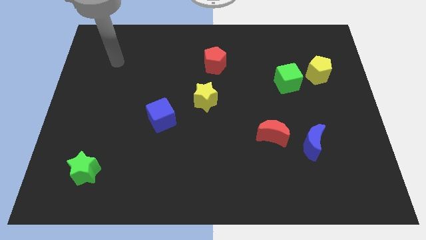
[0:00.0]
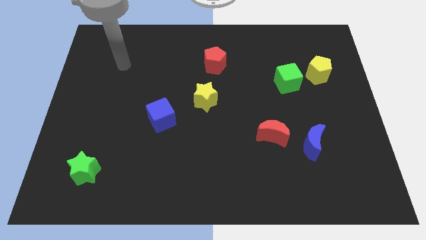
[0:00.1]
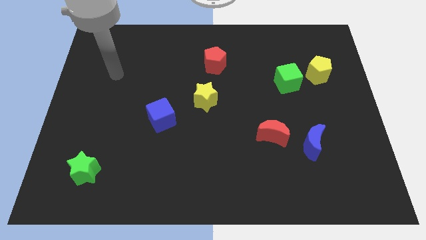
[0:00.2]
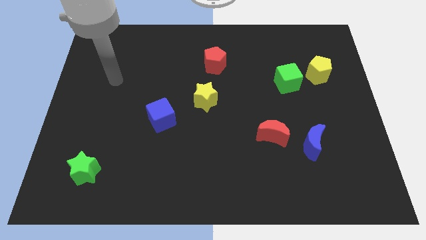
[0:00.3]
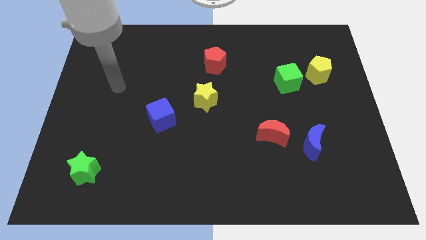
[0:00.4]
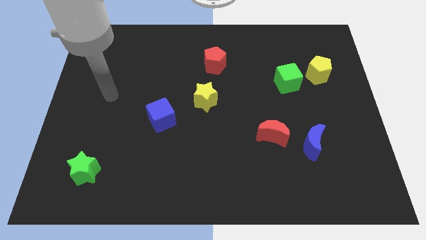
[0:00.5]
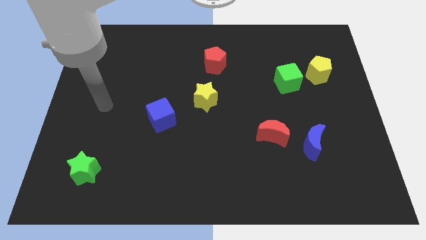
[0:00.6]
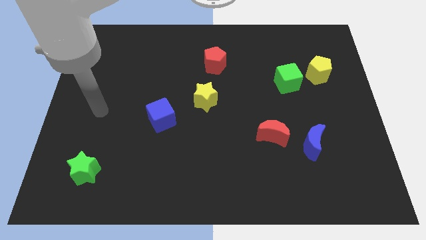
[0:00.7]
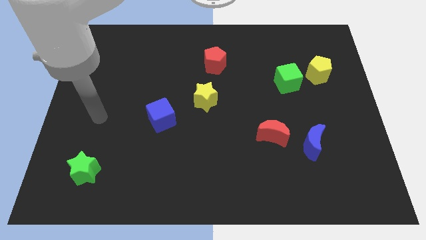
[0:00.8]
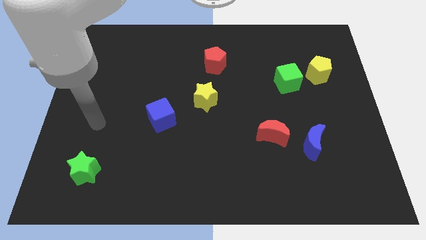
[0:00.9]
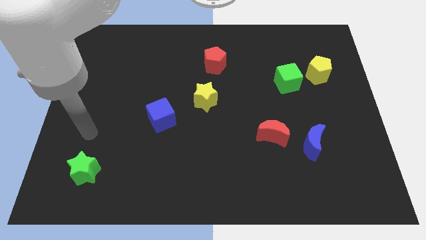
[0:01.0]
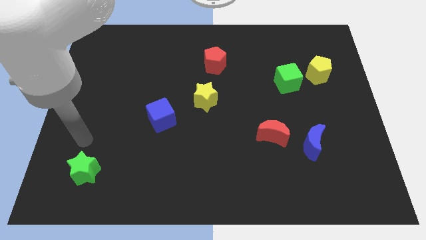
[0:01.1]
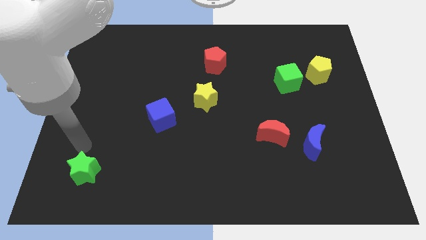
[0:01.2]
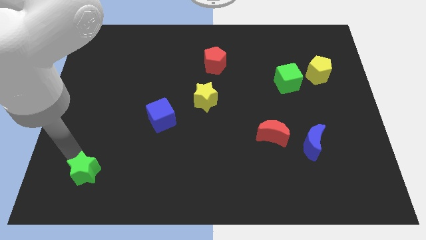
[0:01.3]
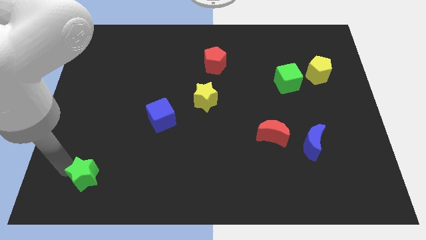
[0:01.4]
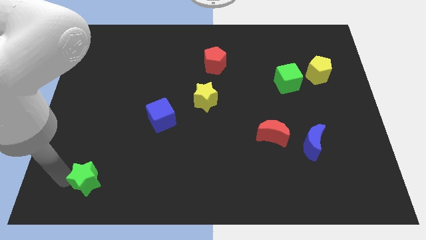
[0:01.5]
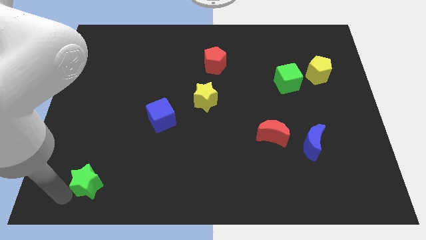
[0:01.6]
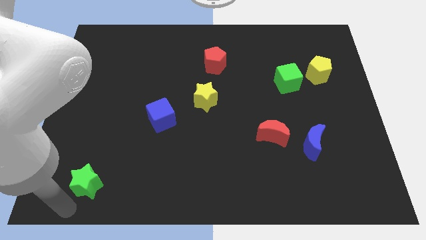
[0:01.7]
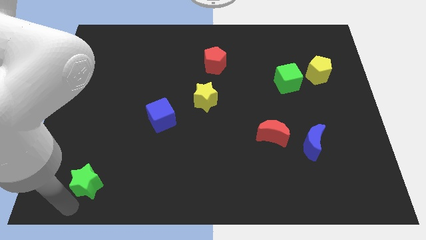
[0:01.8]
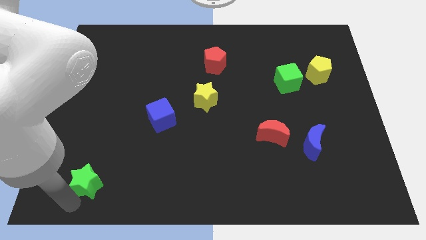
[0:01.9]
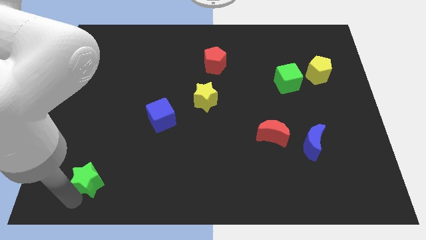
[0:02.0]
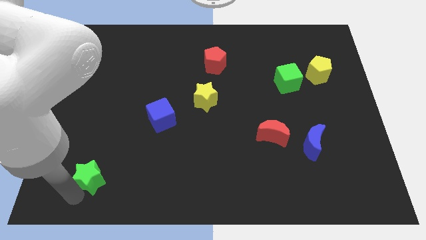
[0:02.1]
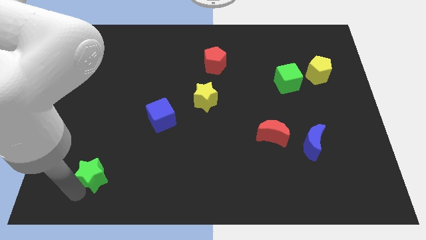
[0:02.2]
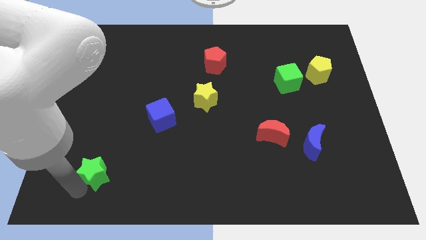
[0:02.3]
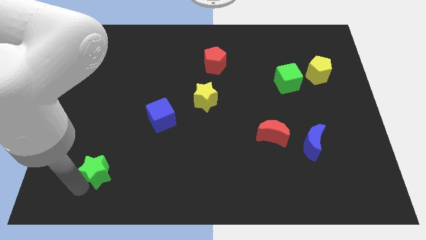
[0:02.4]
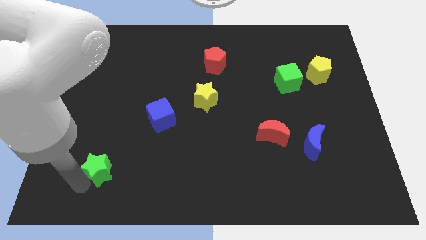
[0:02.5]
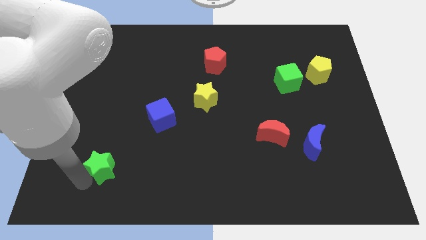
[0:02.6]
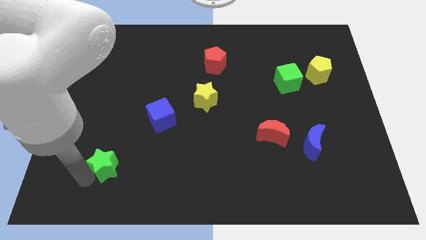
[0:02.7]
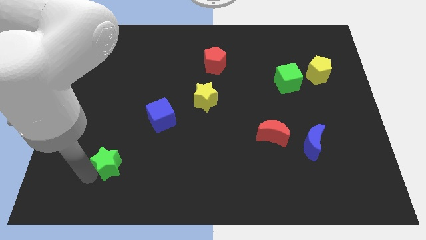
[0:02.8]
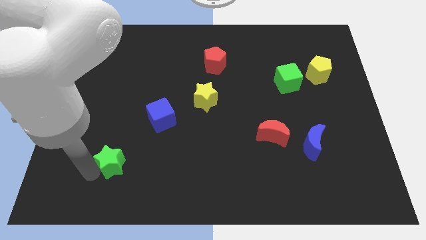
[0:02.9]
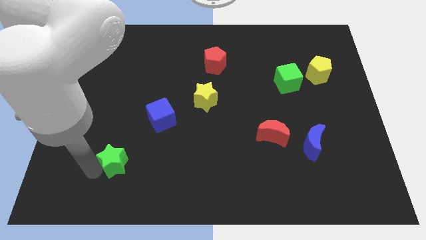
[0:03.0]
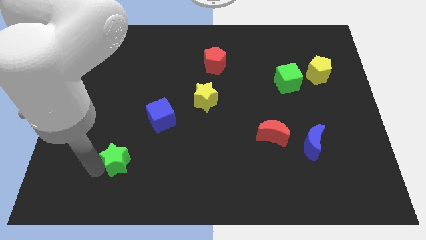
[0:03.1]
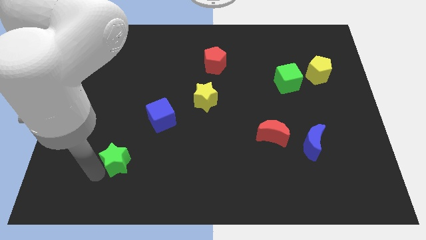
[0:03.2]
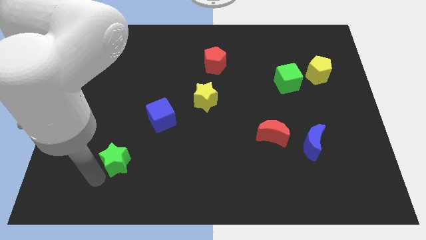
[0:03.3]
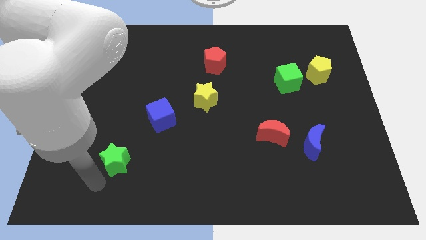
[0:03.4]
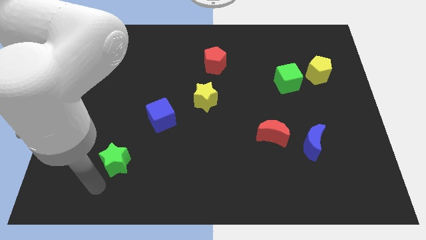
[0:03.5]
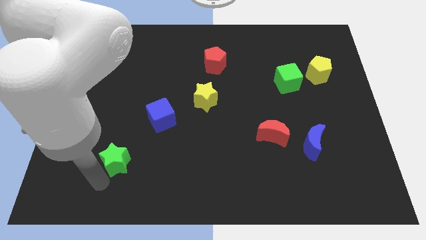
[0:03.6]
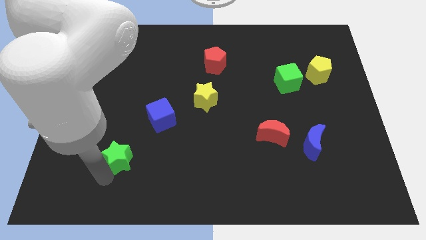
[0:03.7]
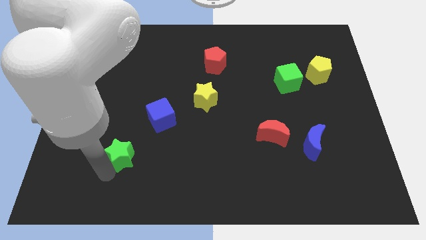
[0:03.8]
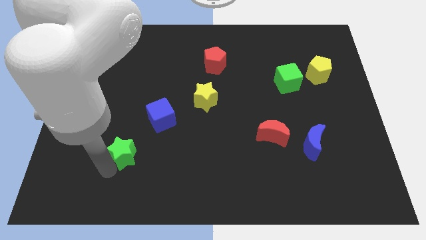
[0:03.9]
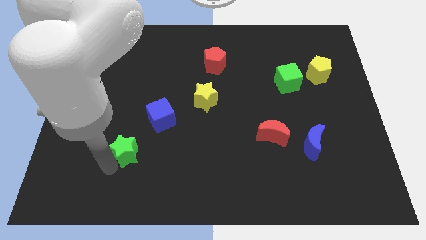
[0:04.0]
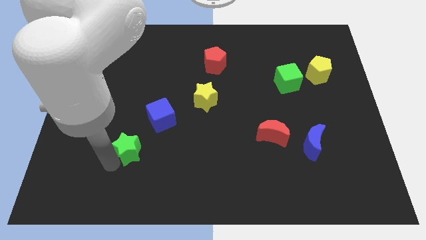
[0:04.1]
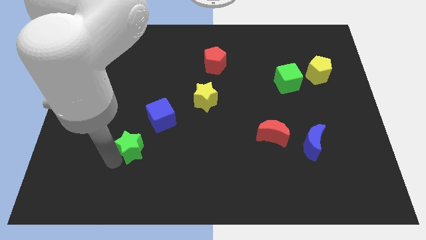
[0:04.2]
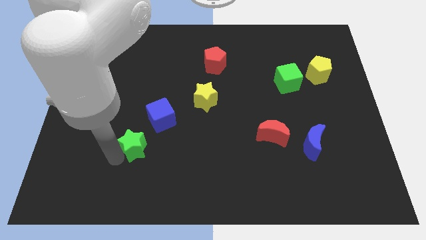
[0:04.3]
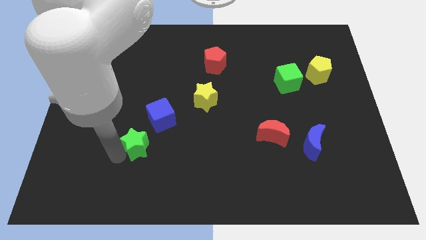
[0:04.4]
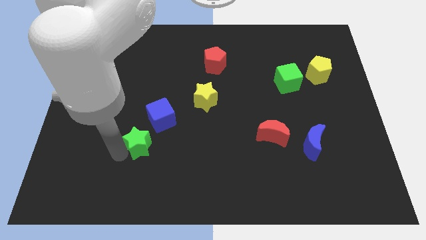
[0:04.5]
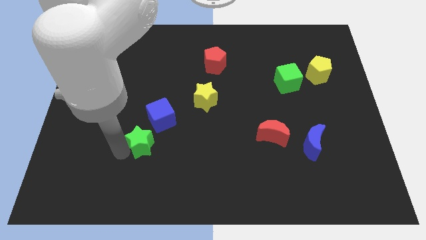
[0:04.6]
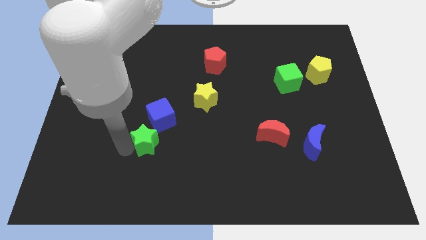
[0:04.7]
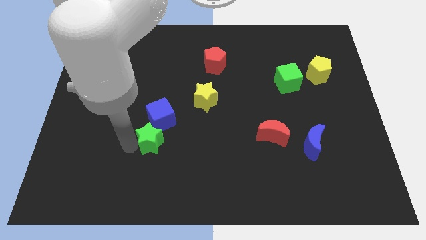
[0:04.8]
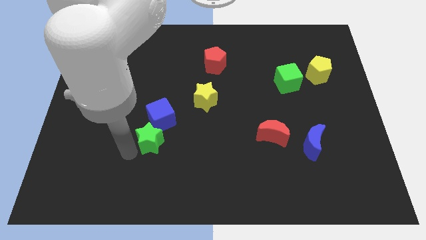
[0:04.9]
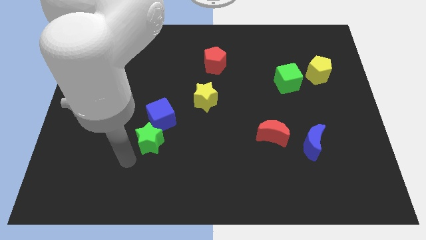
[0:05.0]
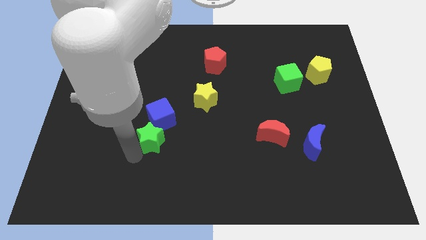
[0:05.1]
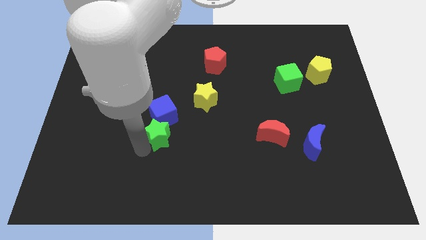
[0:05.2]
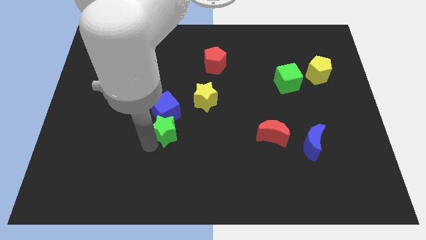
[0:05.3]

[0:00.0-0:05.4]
move the green star to the bottom left of the yellow star

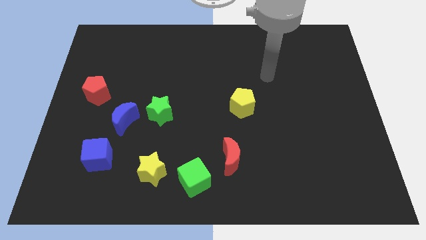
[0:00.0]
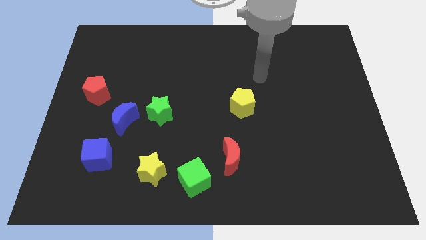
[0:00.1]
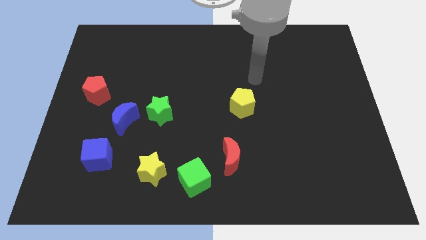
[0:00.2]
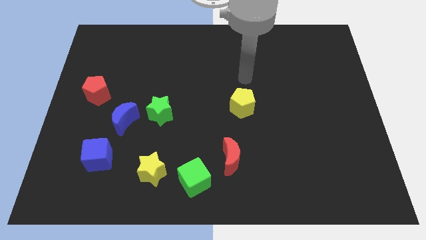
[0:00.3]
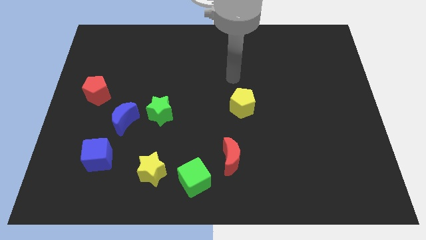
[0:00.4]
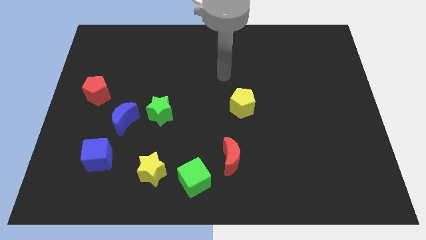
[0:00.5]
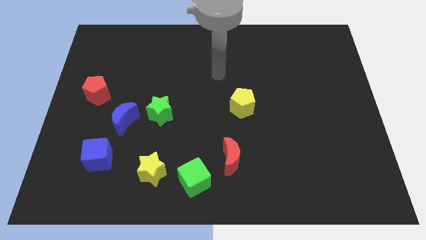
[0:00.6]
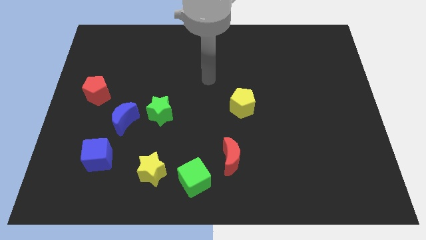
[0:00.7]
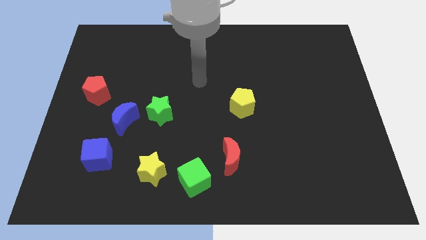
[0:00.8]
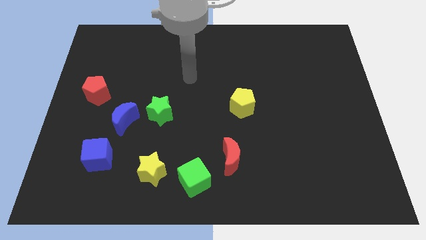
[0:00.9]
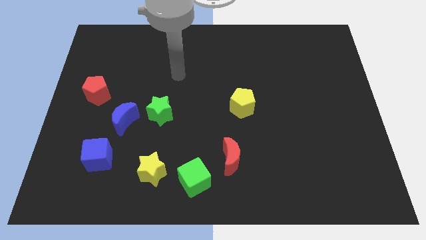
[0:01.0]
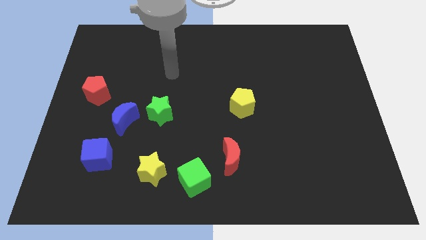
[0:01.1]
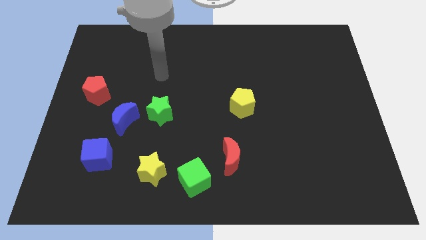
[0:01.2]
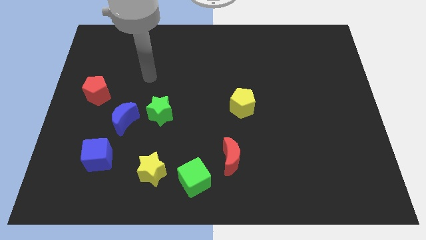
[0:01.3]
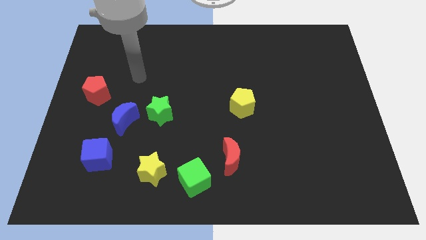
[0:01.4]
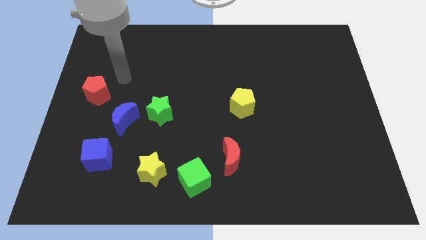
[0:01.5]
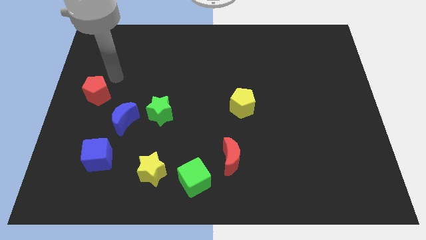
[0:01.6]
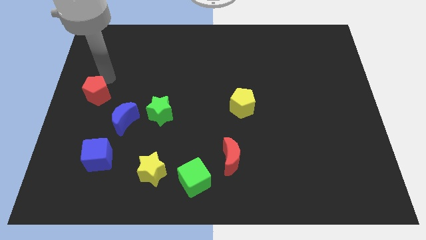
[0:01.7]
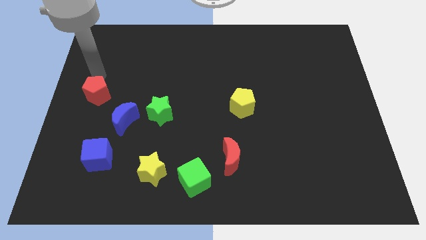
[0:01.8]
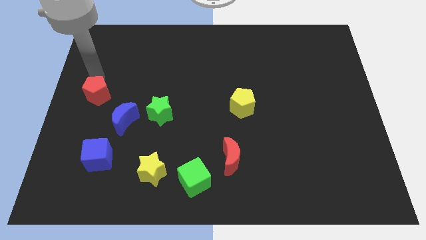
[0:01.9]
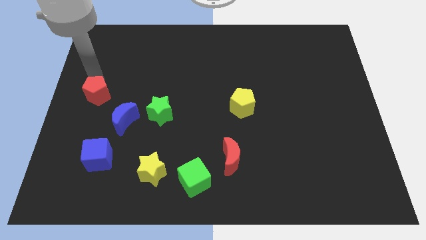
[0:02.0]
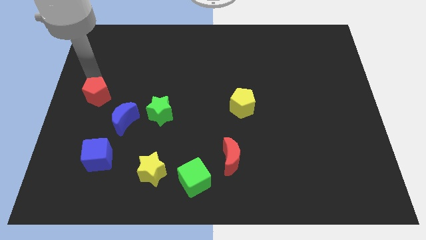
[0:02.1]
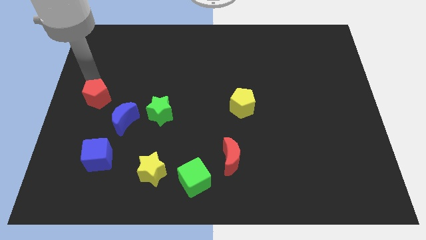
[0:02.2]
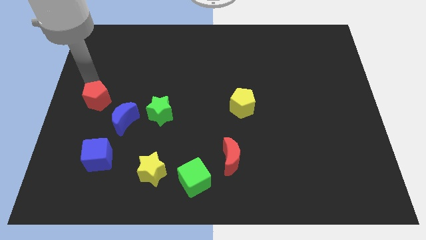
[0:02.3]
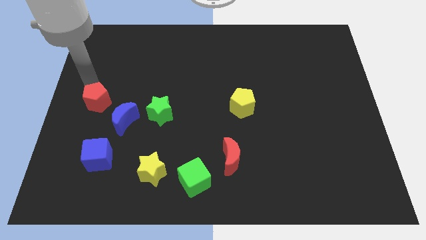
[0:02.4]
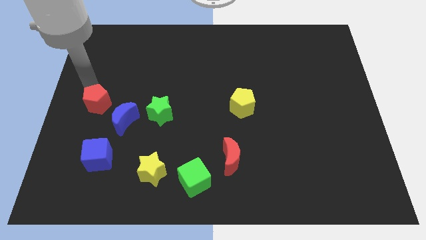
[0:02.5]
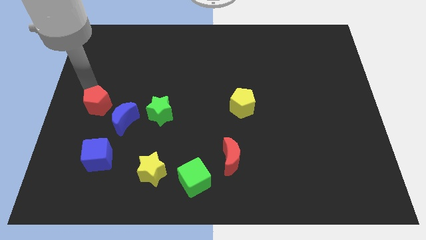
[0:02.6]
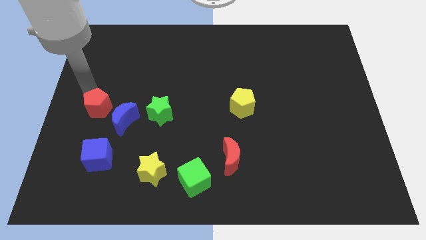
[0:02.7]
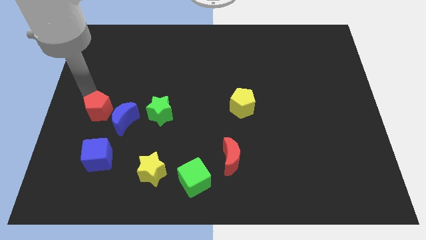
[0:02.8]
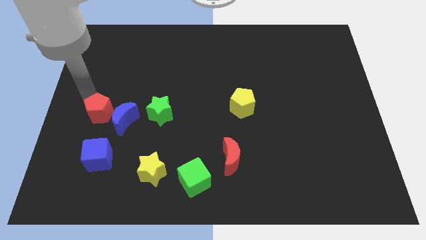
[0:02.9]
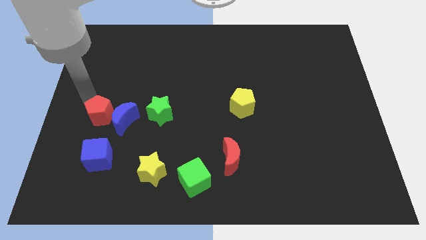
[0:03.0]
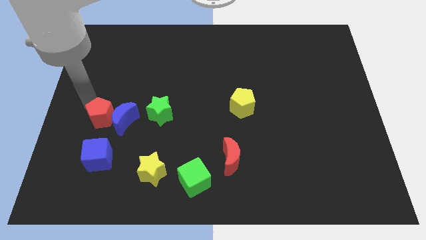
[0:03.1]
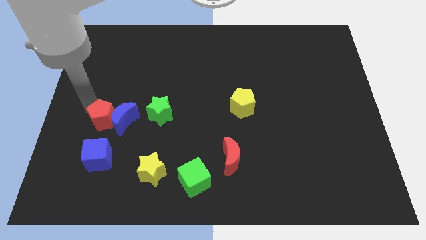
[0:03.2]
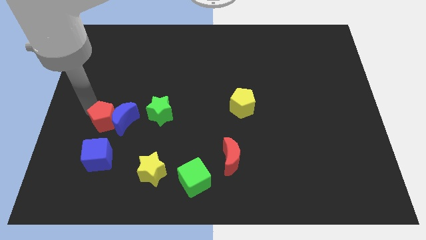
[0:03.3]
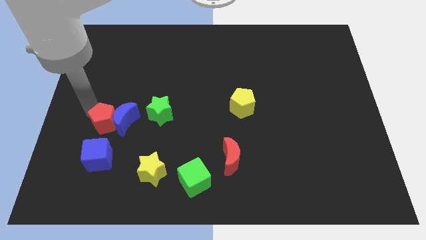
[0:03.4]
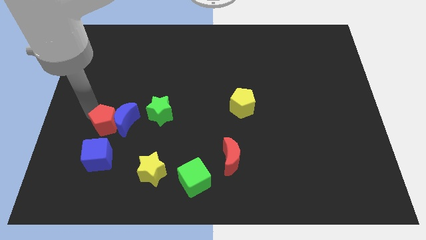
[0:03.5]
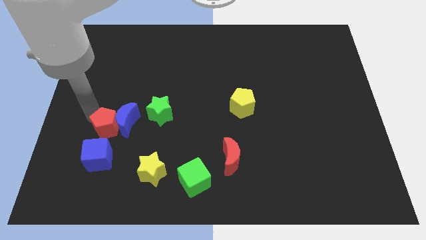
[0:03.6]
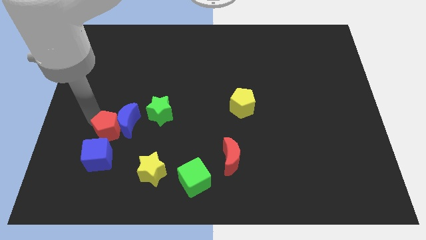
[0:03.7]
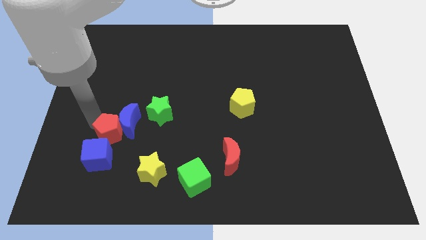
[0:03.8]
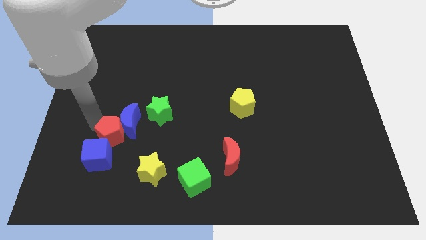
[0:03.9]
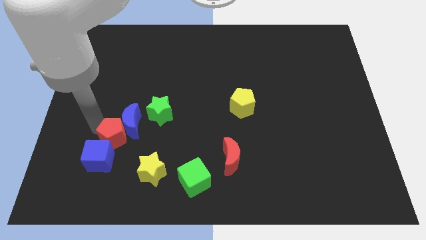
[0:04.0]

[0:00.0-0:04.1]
push the red pentagon diagonally up and to the left of the yellow star
